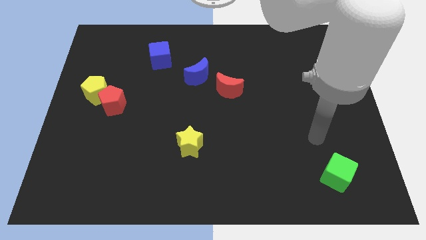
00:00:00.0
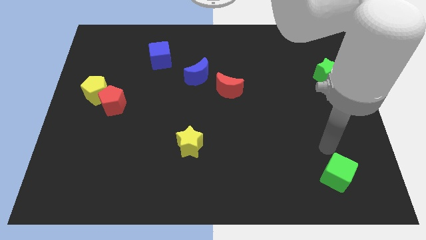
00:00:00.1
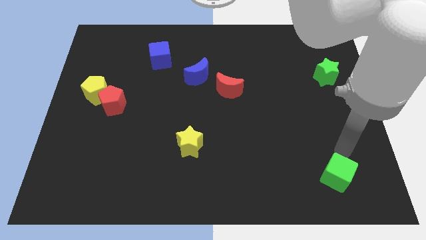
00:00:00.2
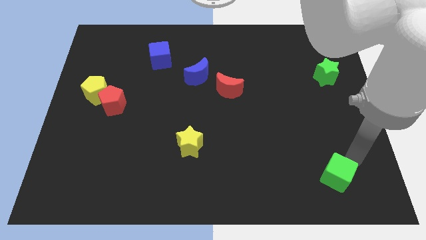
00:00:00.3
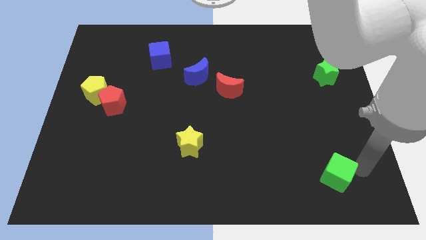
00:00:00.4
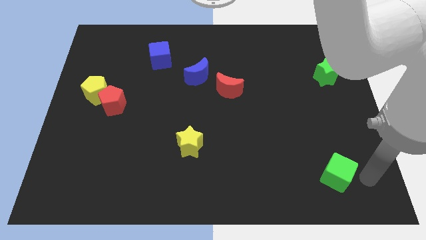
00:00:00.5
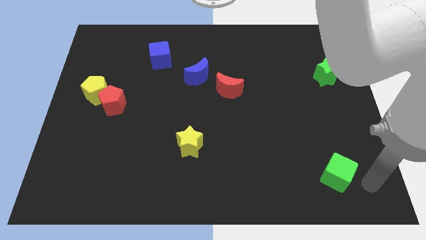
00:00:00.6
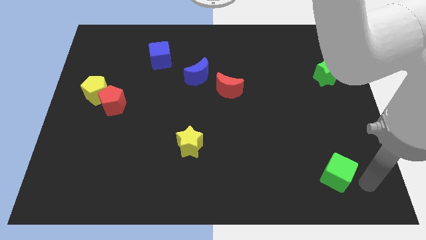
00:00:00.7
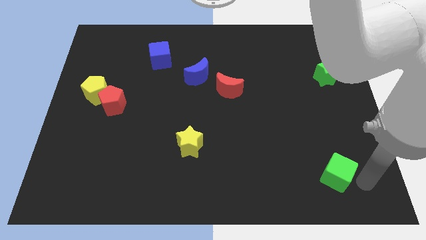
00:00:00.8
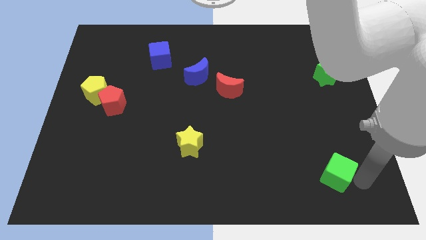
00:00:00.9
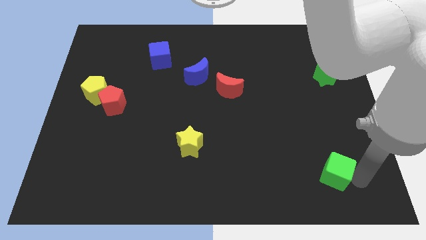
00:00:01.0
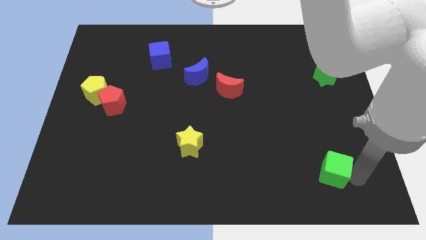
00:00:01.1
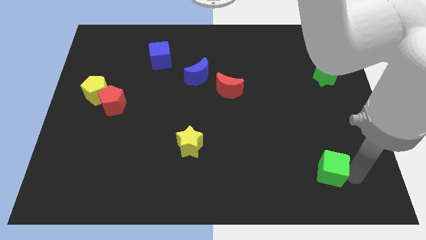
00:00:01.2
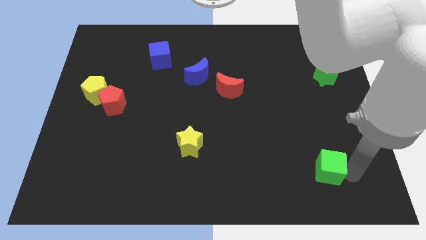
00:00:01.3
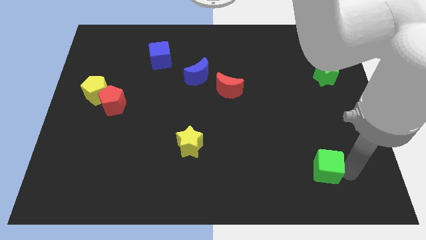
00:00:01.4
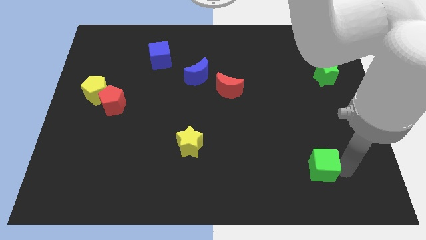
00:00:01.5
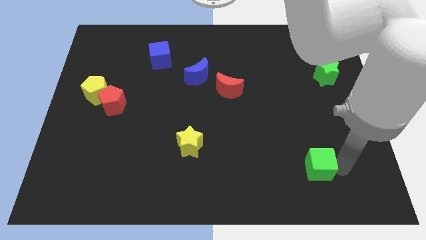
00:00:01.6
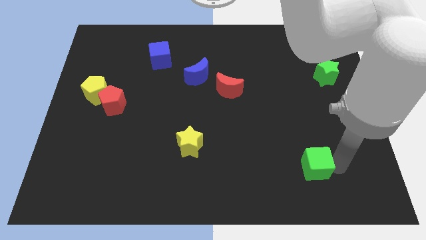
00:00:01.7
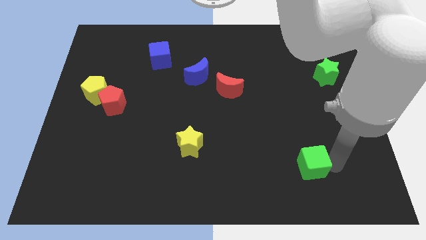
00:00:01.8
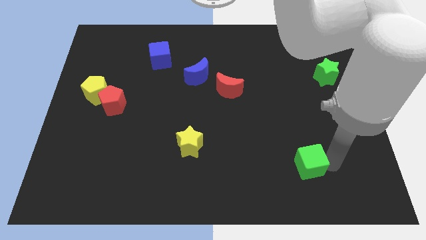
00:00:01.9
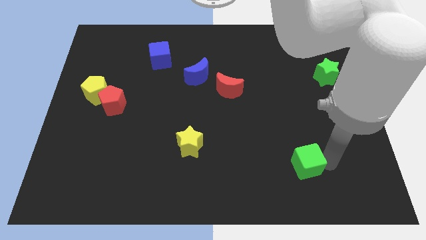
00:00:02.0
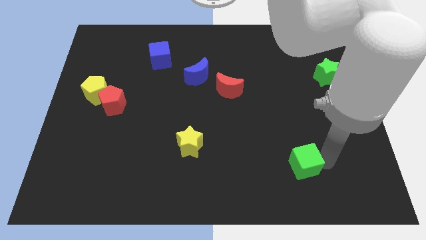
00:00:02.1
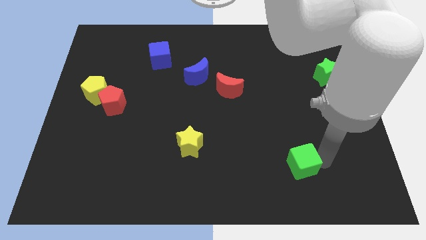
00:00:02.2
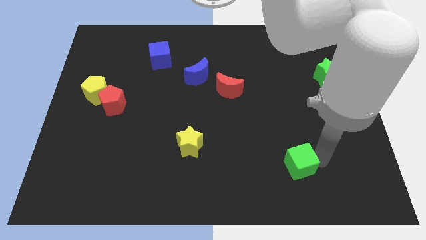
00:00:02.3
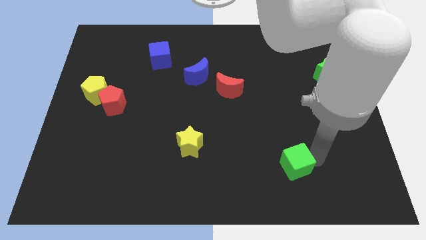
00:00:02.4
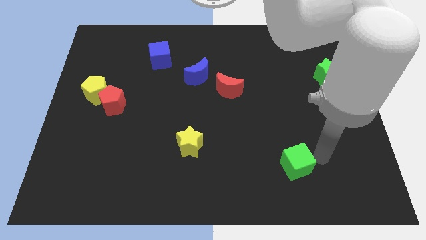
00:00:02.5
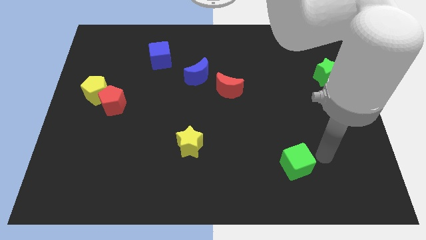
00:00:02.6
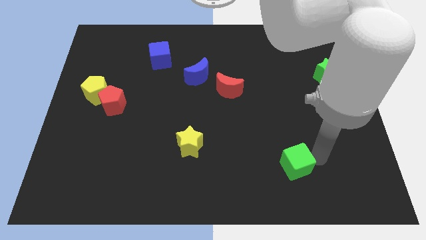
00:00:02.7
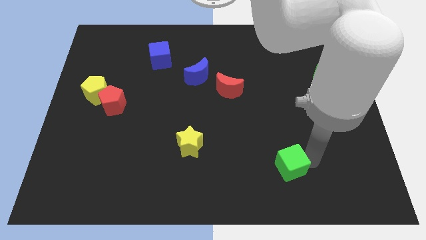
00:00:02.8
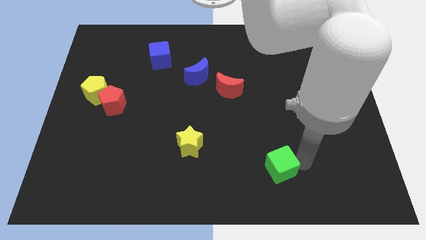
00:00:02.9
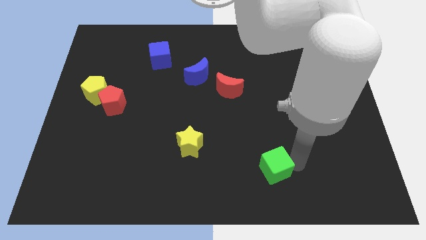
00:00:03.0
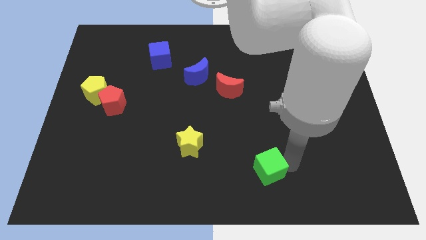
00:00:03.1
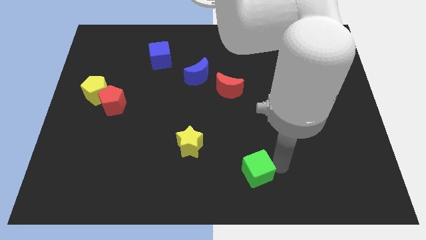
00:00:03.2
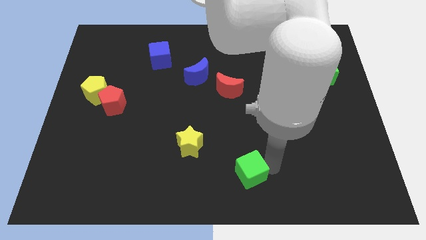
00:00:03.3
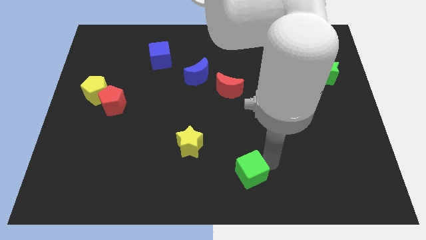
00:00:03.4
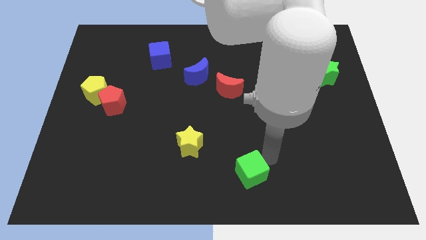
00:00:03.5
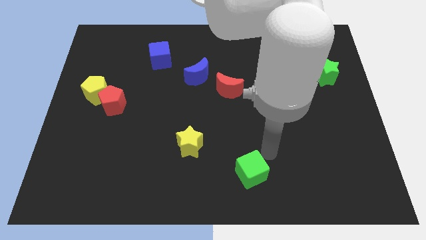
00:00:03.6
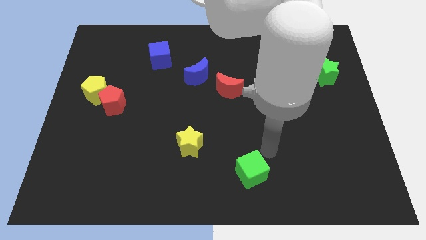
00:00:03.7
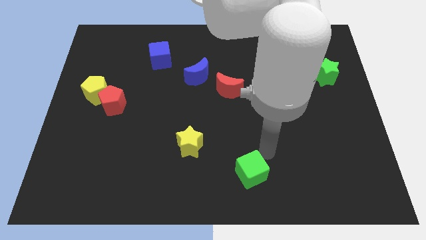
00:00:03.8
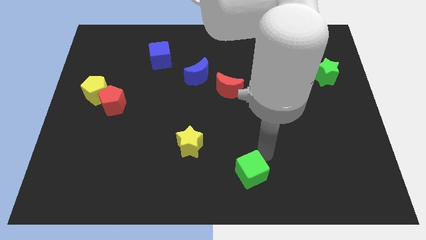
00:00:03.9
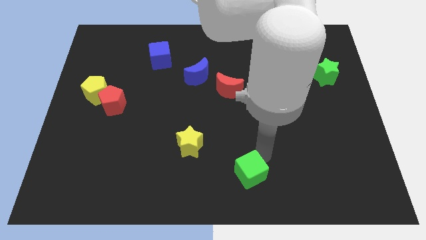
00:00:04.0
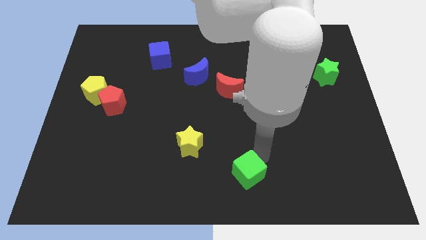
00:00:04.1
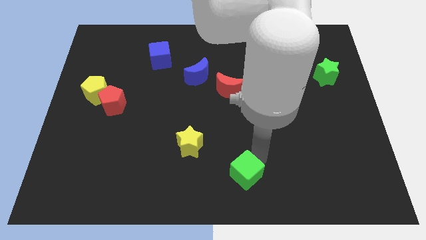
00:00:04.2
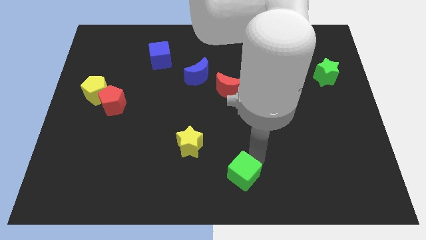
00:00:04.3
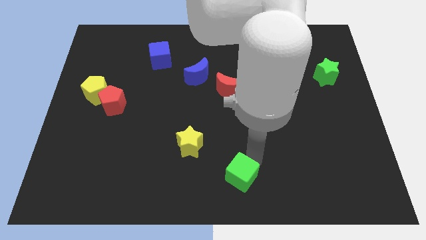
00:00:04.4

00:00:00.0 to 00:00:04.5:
move the green cube left

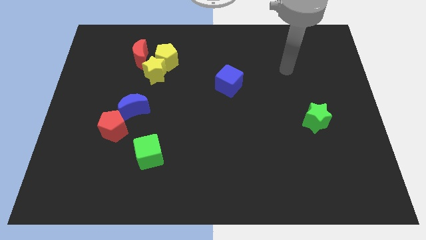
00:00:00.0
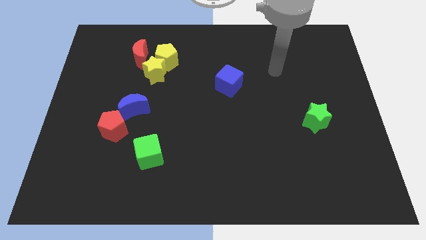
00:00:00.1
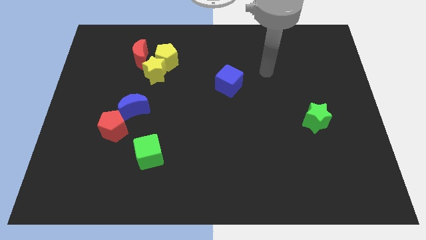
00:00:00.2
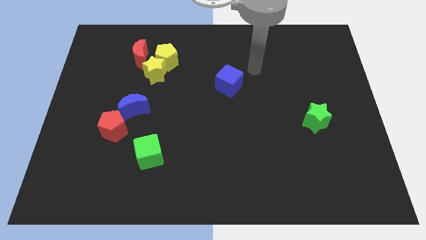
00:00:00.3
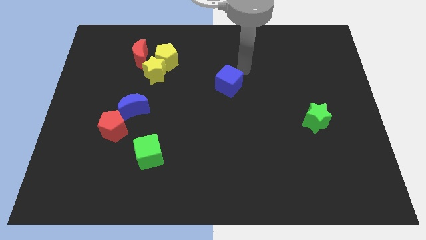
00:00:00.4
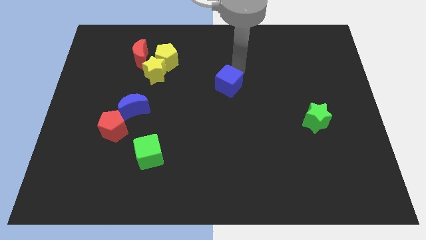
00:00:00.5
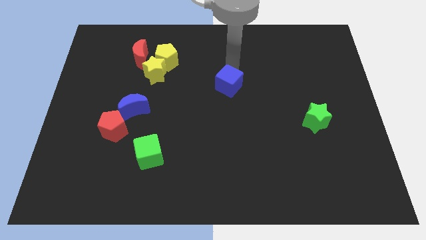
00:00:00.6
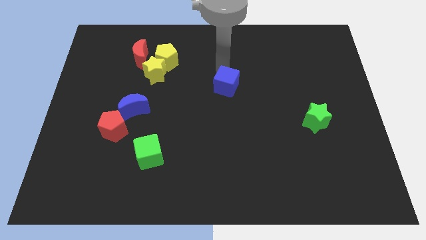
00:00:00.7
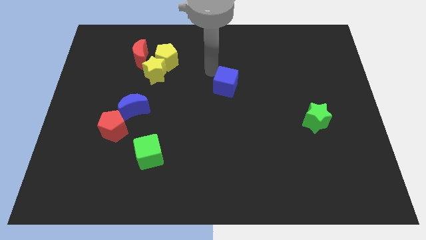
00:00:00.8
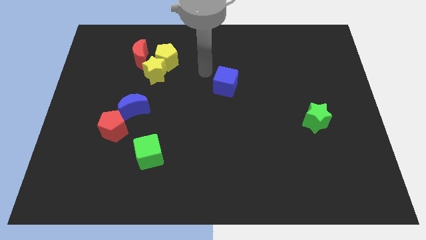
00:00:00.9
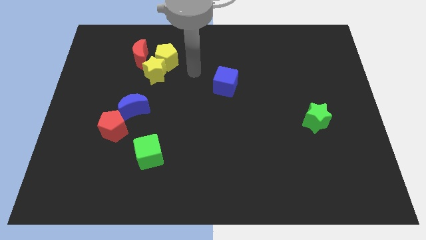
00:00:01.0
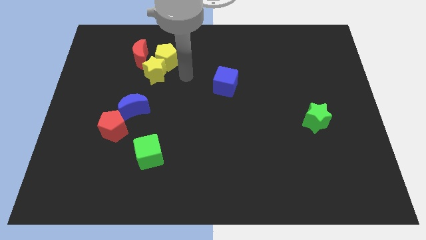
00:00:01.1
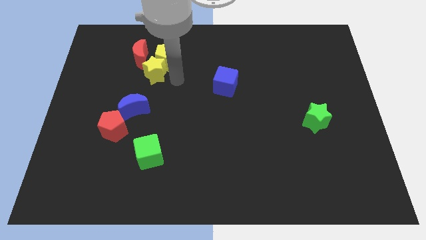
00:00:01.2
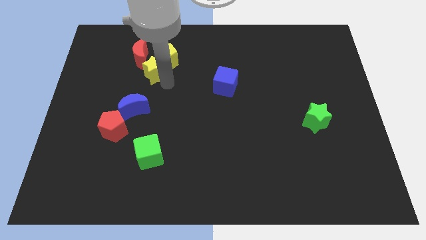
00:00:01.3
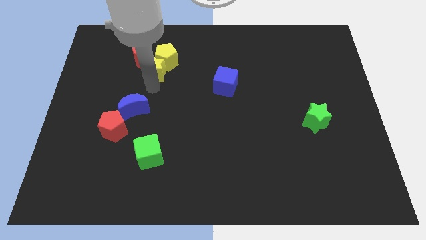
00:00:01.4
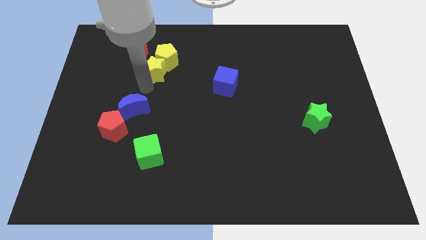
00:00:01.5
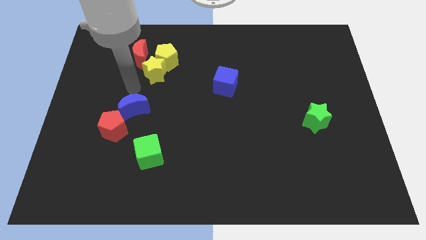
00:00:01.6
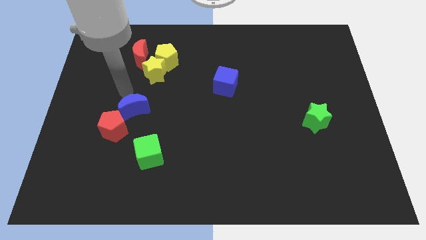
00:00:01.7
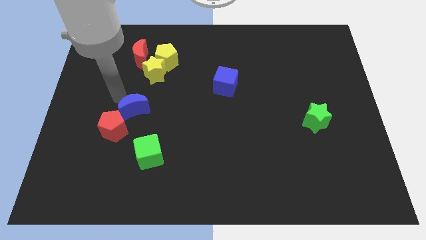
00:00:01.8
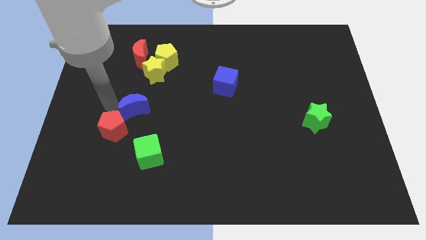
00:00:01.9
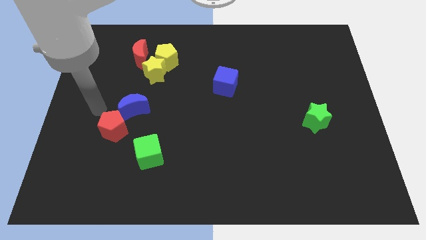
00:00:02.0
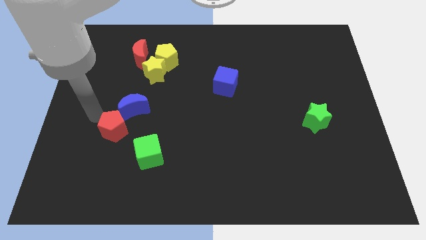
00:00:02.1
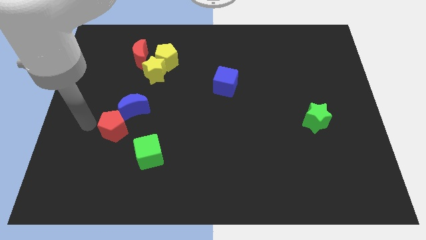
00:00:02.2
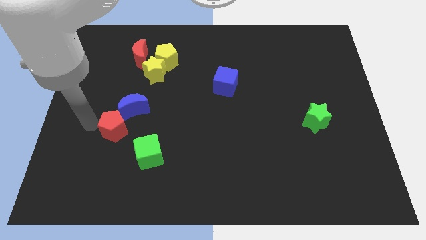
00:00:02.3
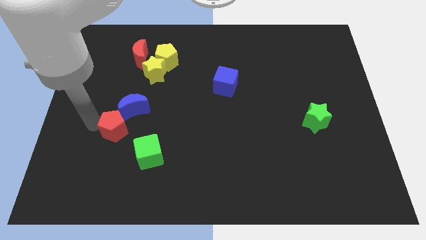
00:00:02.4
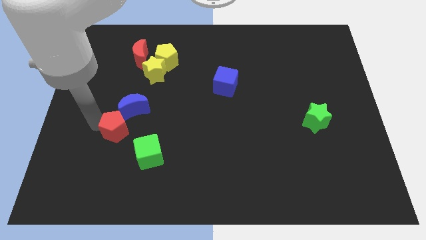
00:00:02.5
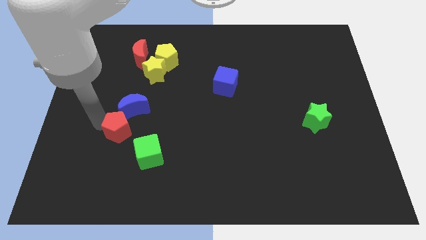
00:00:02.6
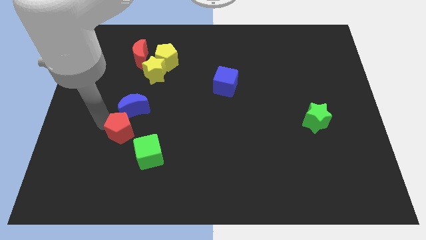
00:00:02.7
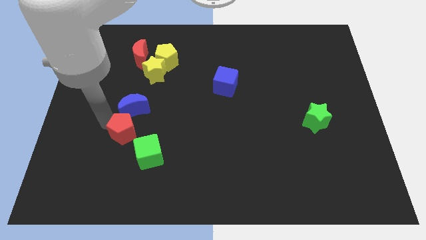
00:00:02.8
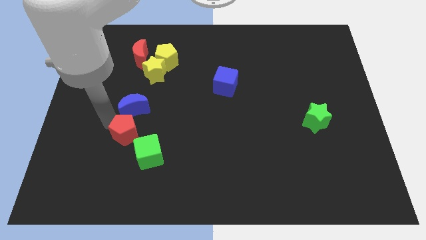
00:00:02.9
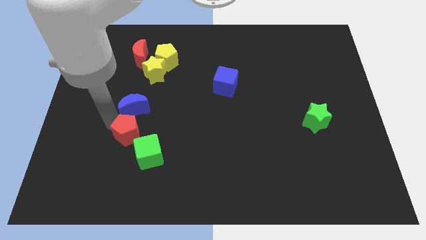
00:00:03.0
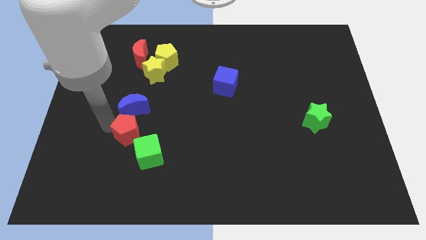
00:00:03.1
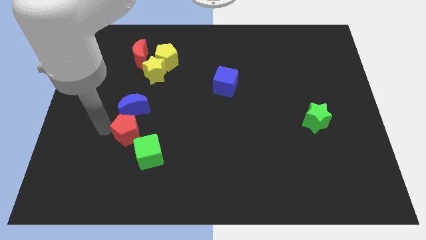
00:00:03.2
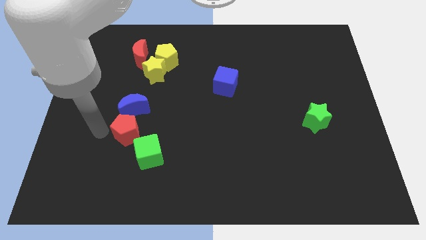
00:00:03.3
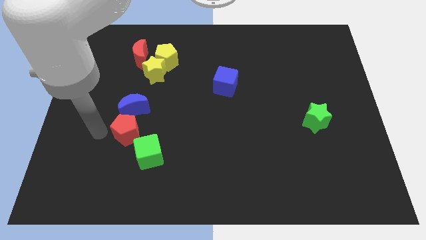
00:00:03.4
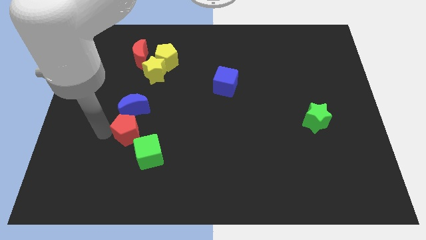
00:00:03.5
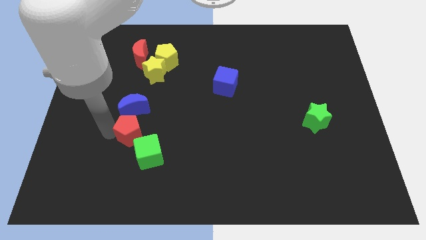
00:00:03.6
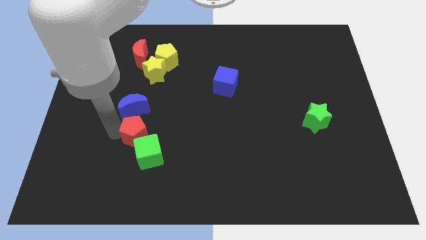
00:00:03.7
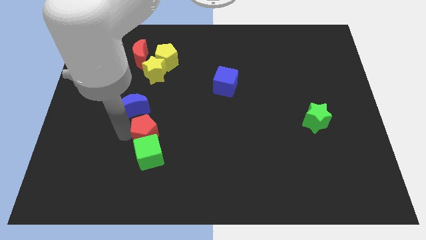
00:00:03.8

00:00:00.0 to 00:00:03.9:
slightly move the red pentagon to the right
